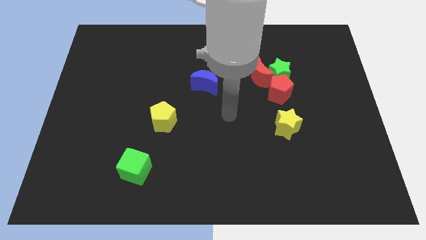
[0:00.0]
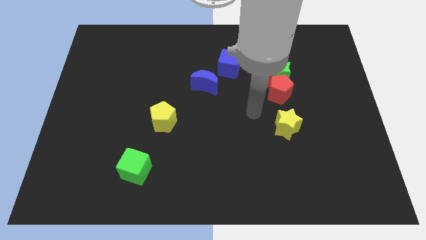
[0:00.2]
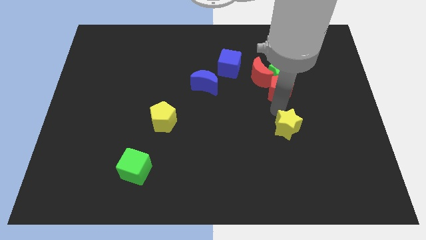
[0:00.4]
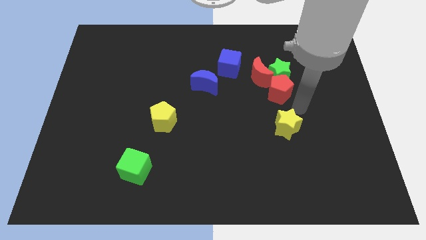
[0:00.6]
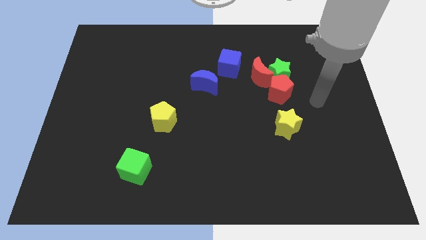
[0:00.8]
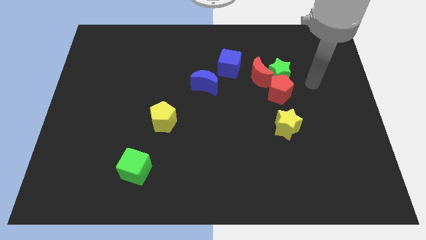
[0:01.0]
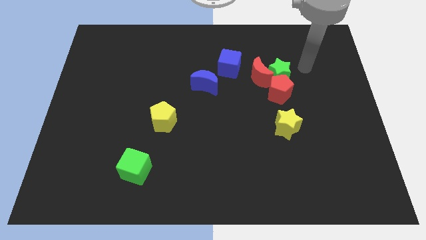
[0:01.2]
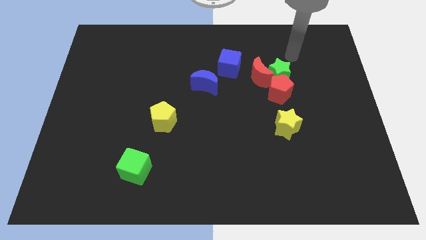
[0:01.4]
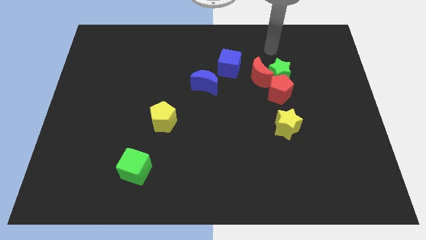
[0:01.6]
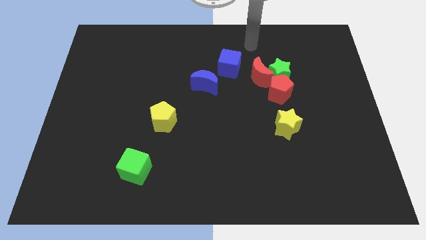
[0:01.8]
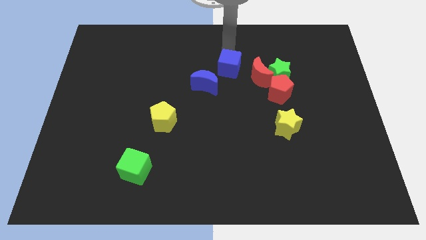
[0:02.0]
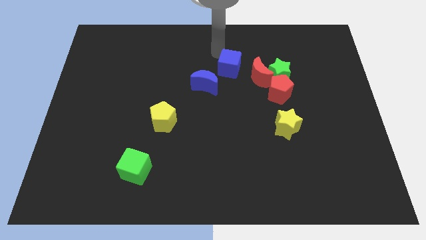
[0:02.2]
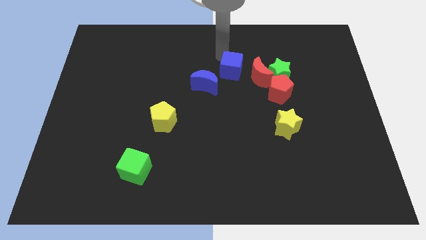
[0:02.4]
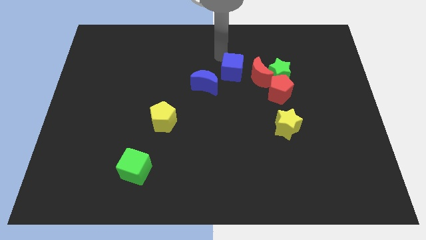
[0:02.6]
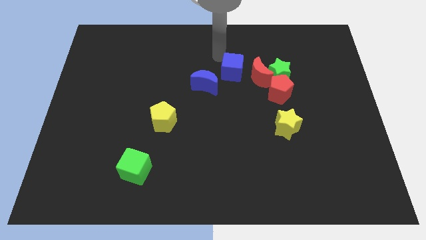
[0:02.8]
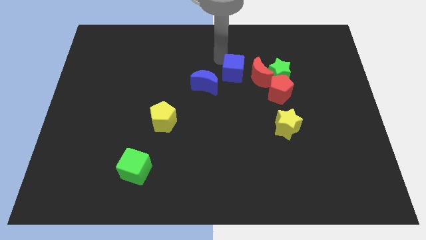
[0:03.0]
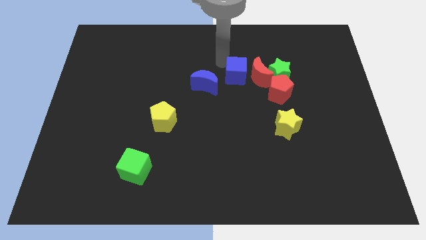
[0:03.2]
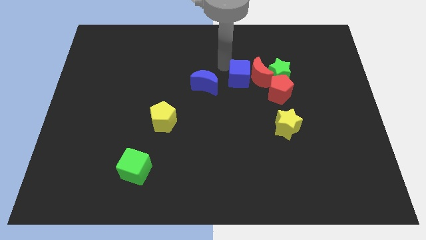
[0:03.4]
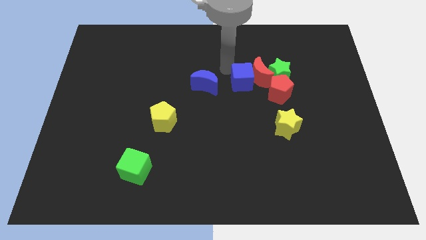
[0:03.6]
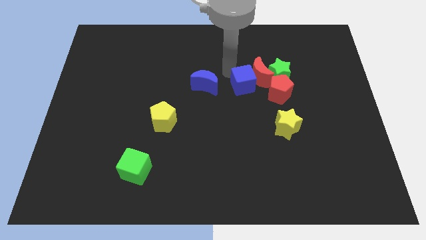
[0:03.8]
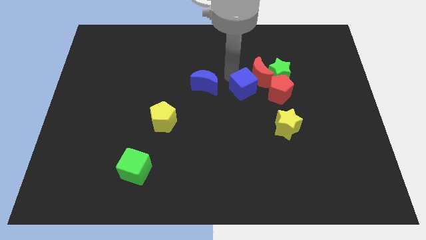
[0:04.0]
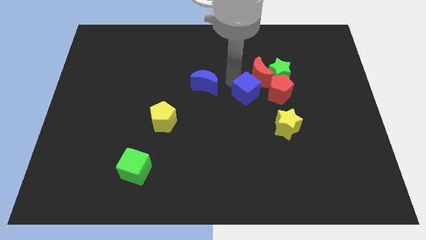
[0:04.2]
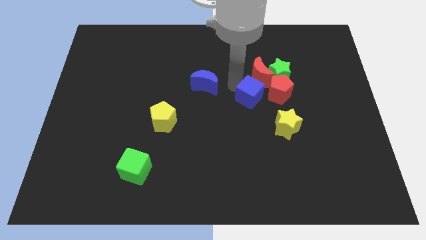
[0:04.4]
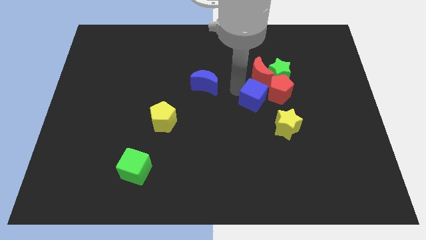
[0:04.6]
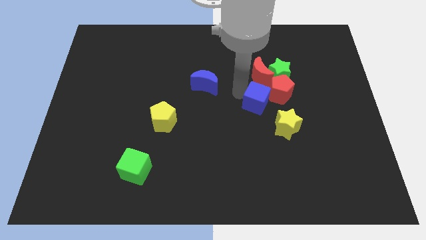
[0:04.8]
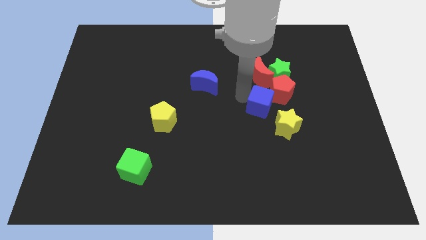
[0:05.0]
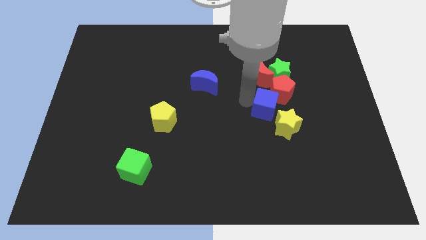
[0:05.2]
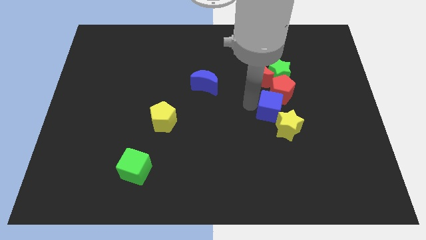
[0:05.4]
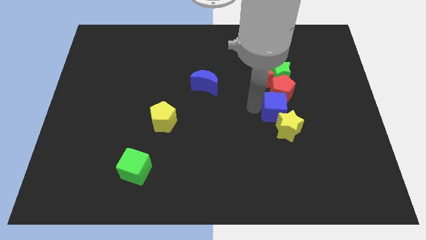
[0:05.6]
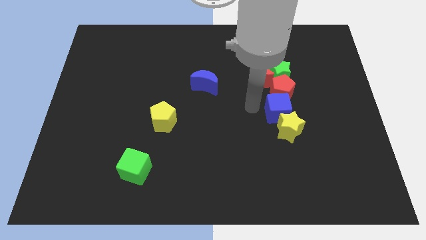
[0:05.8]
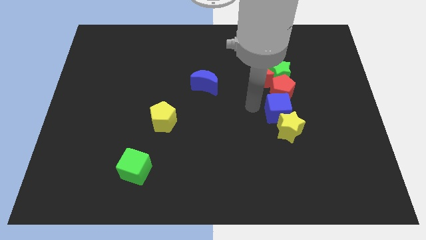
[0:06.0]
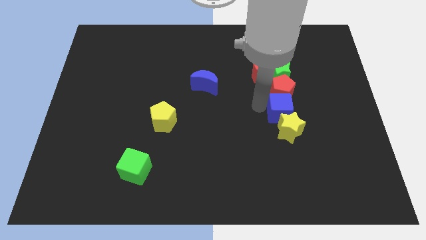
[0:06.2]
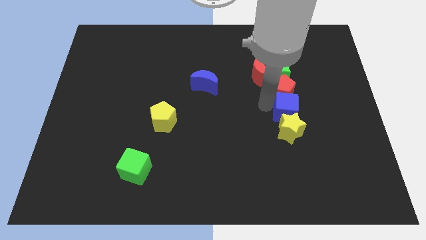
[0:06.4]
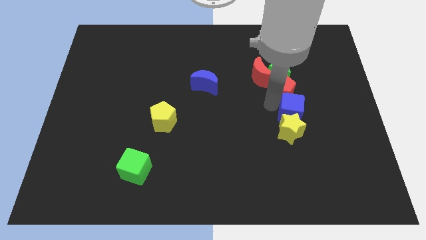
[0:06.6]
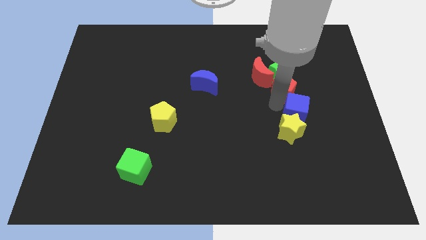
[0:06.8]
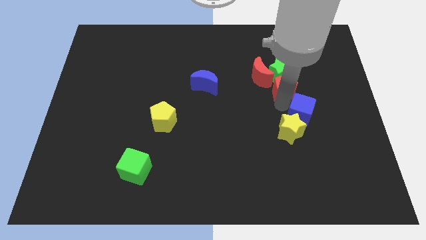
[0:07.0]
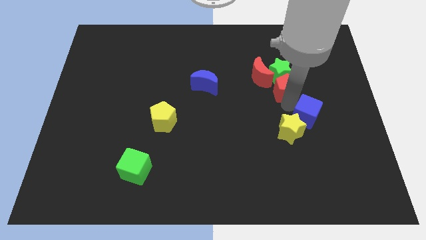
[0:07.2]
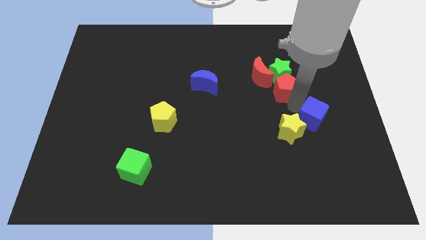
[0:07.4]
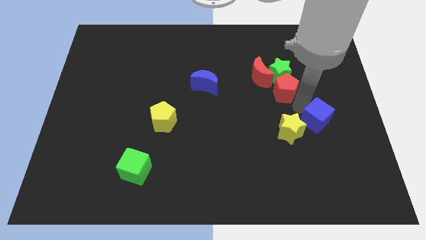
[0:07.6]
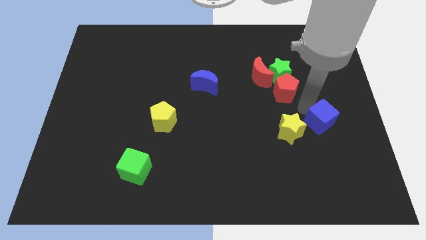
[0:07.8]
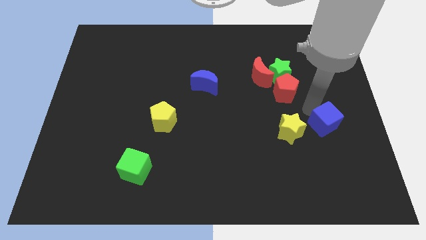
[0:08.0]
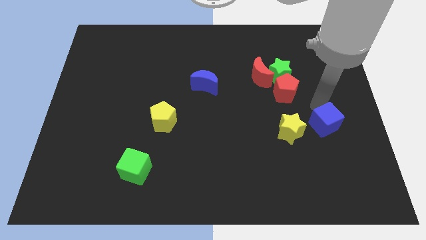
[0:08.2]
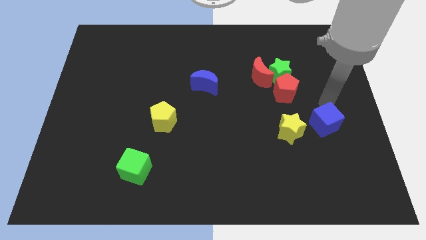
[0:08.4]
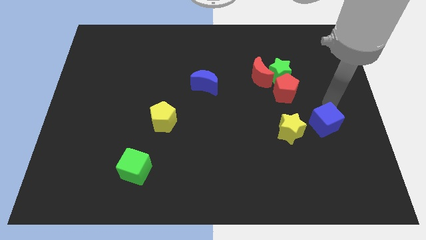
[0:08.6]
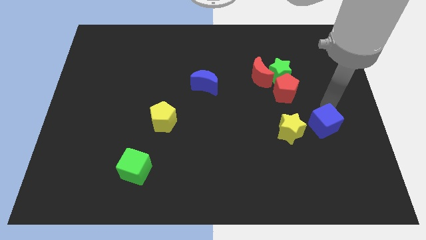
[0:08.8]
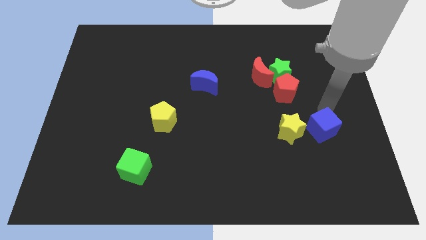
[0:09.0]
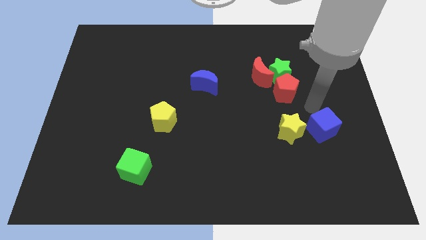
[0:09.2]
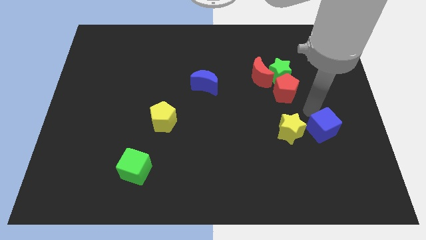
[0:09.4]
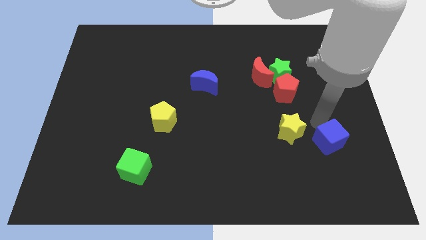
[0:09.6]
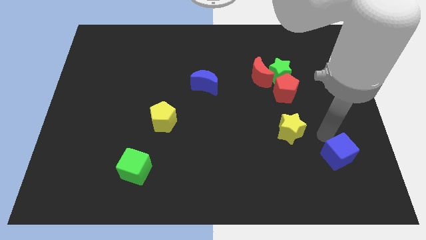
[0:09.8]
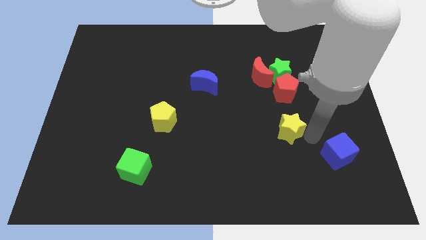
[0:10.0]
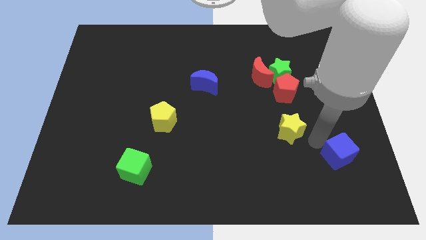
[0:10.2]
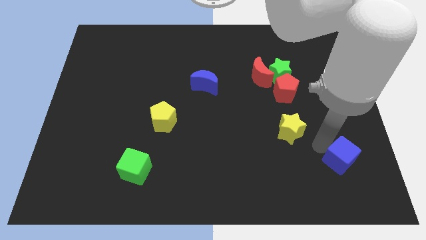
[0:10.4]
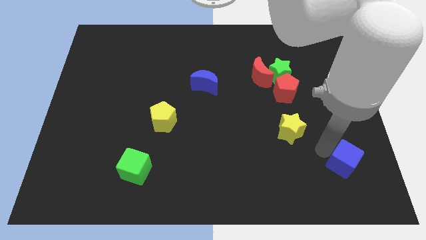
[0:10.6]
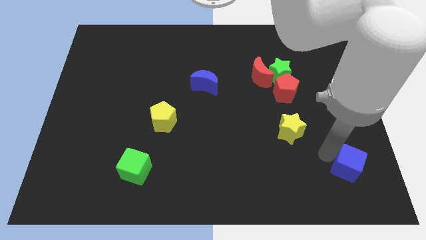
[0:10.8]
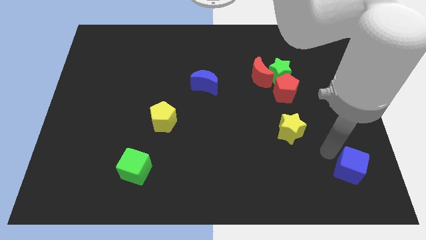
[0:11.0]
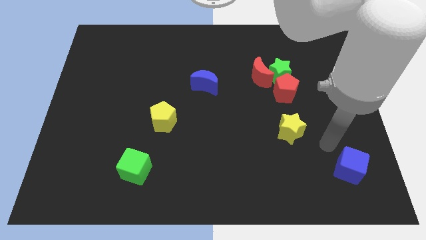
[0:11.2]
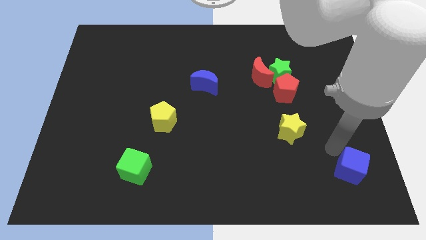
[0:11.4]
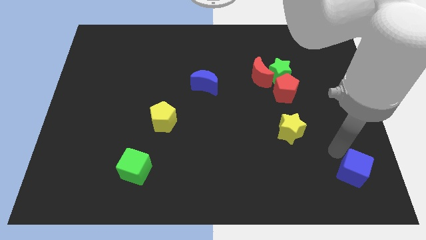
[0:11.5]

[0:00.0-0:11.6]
slide the blue cube to the bottom right

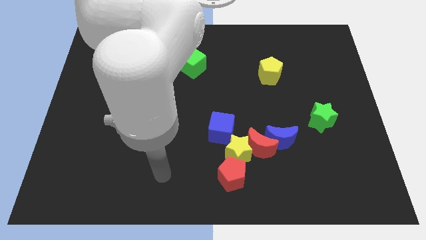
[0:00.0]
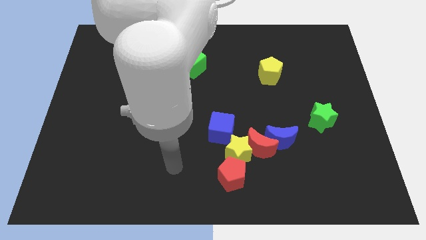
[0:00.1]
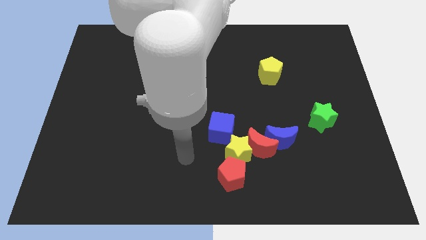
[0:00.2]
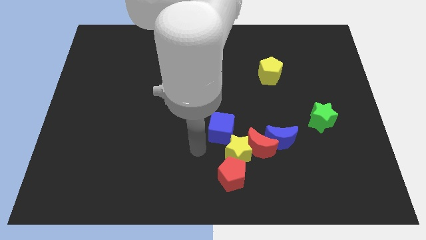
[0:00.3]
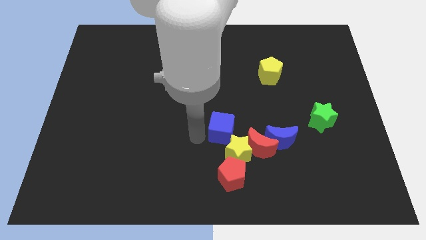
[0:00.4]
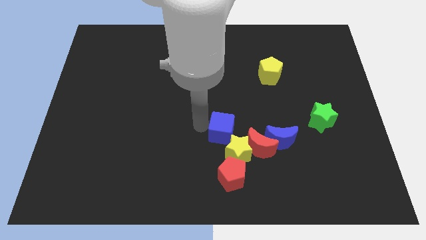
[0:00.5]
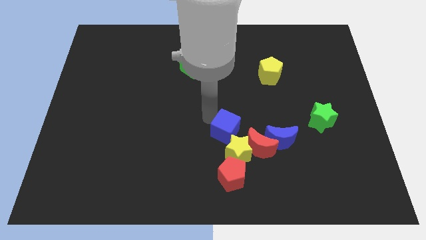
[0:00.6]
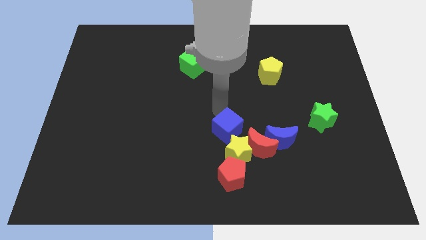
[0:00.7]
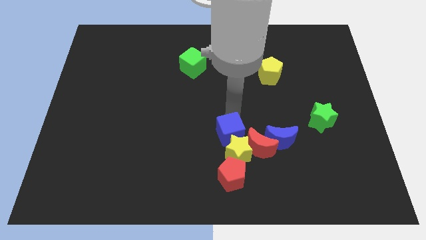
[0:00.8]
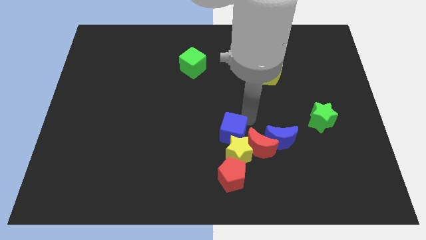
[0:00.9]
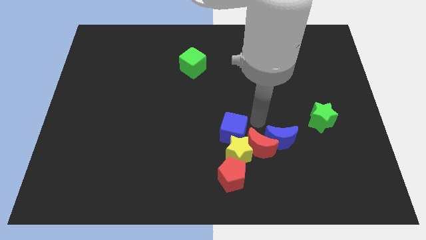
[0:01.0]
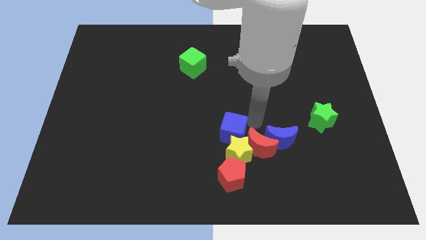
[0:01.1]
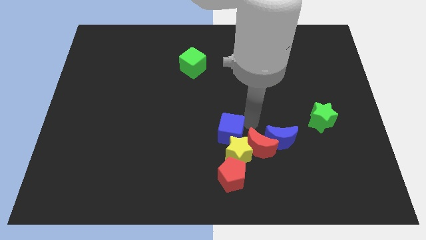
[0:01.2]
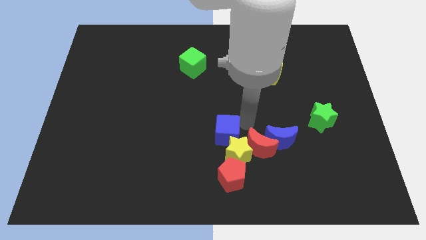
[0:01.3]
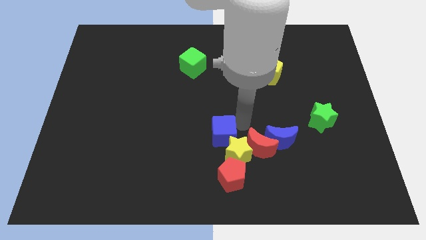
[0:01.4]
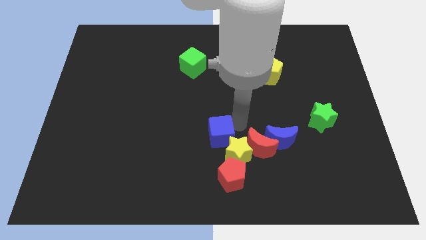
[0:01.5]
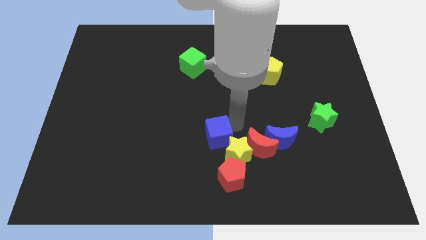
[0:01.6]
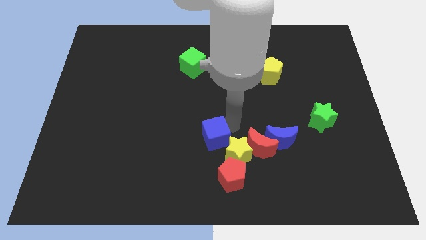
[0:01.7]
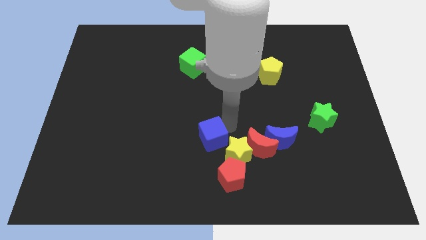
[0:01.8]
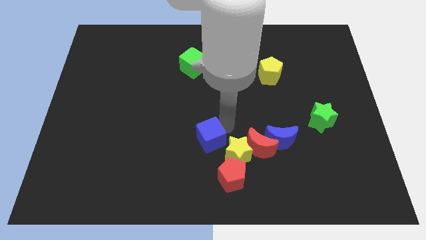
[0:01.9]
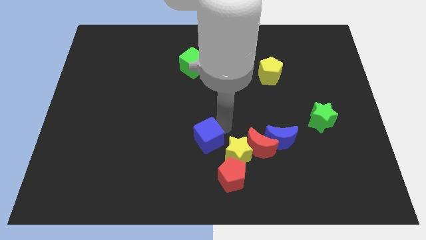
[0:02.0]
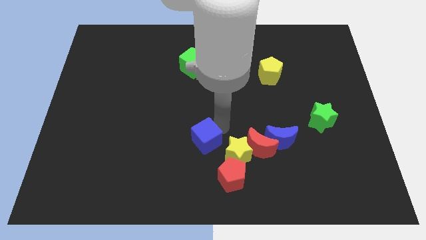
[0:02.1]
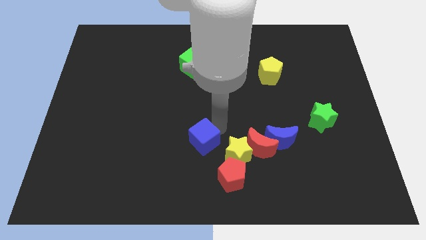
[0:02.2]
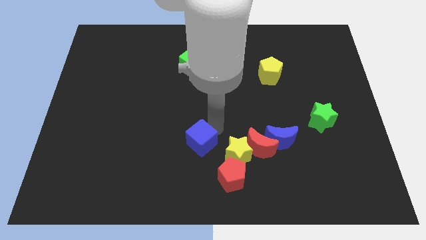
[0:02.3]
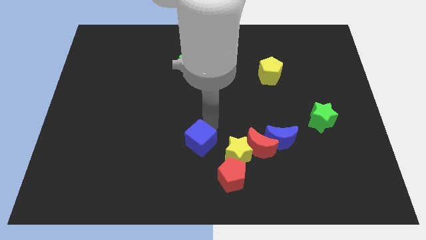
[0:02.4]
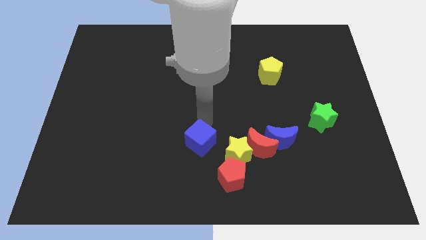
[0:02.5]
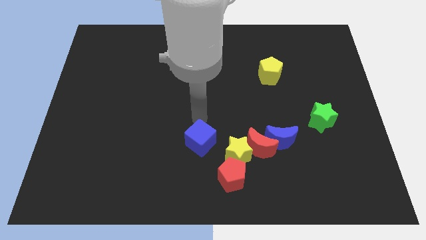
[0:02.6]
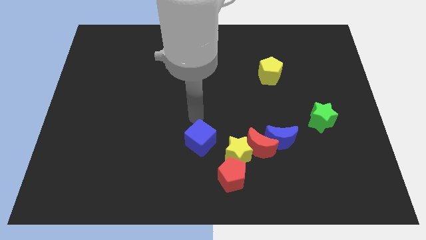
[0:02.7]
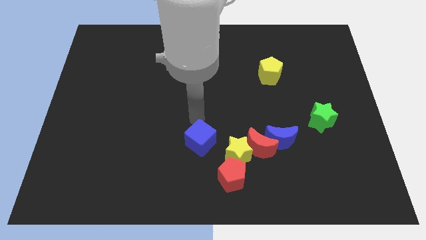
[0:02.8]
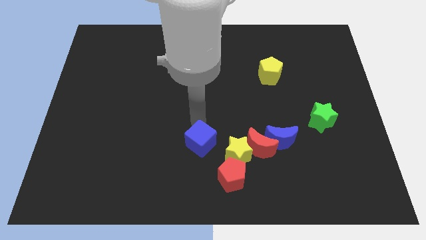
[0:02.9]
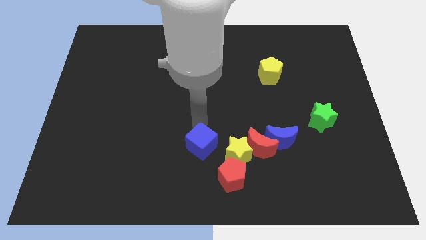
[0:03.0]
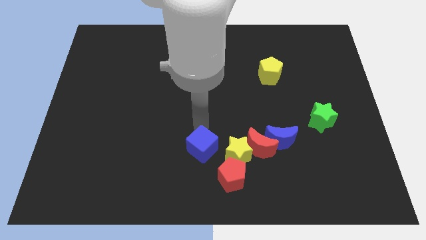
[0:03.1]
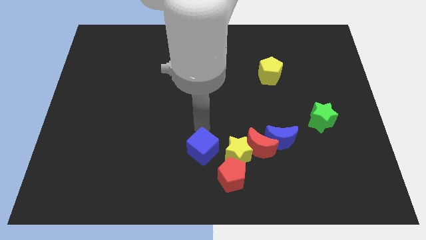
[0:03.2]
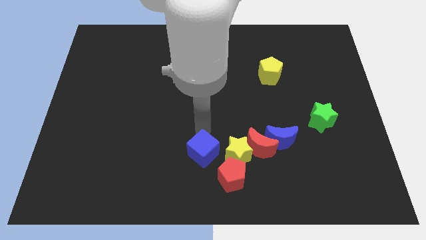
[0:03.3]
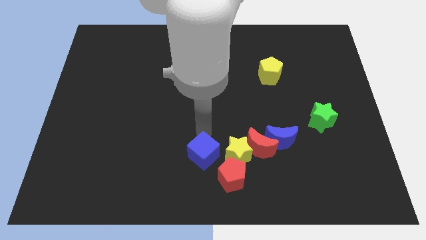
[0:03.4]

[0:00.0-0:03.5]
push the blue cube to the bottom side
